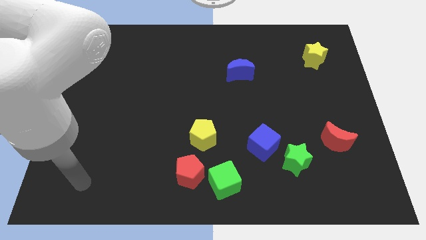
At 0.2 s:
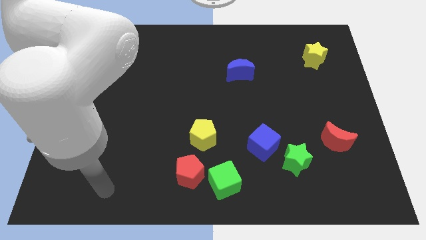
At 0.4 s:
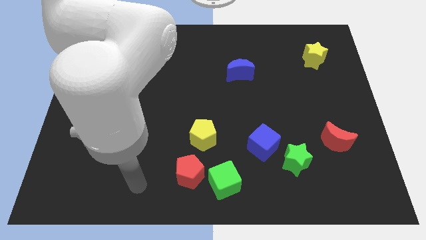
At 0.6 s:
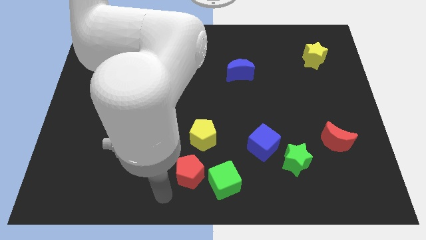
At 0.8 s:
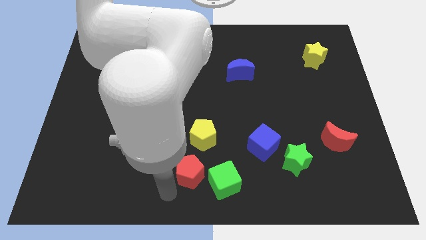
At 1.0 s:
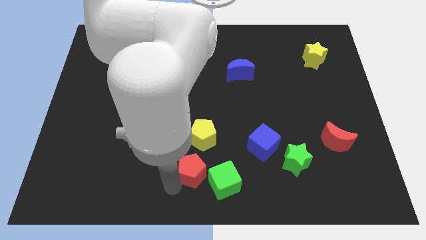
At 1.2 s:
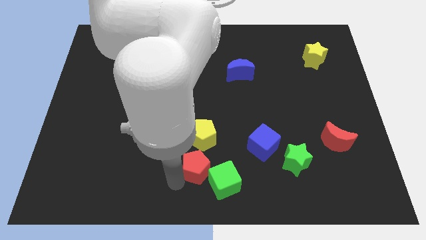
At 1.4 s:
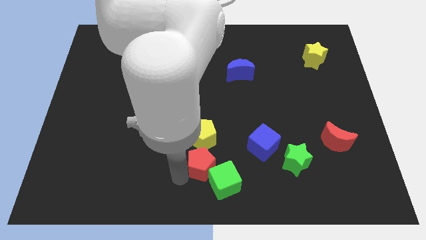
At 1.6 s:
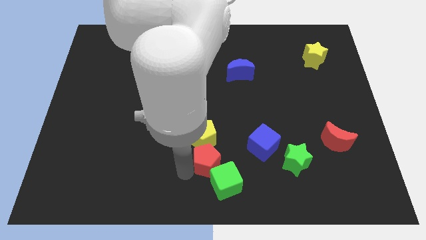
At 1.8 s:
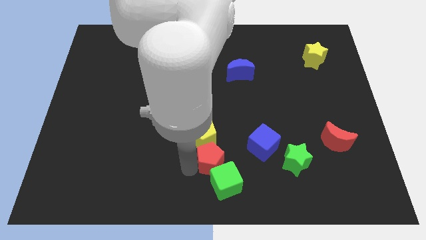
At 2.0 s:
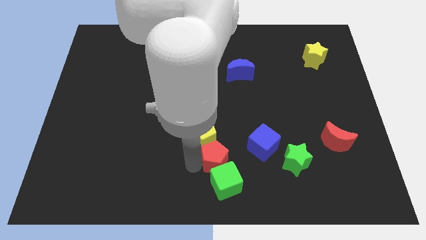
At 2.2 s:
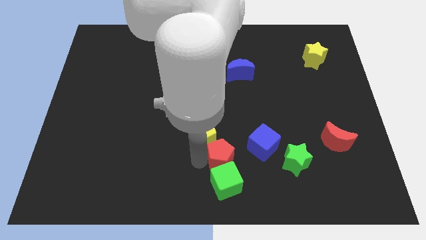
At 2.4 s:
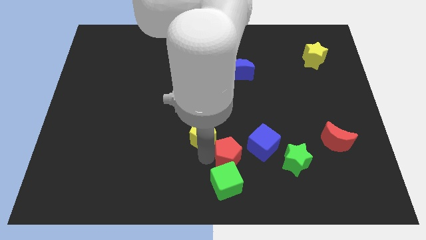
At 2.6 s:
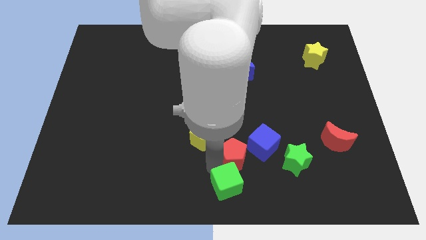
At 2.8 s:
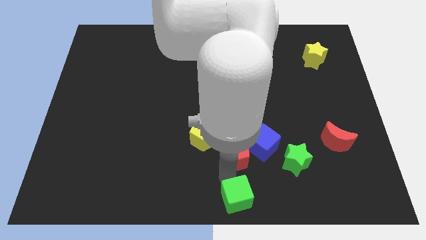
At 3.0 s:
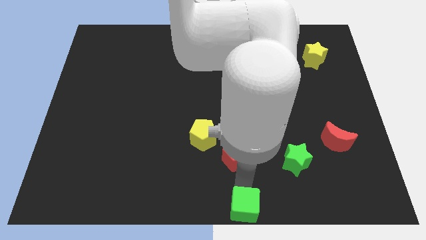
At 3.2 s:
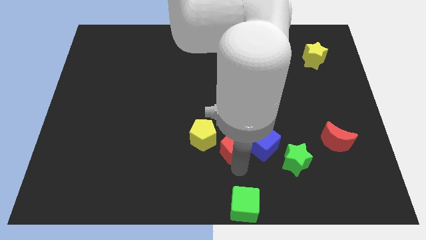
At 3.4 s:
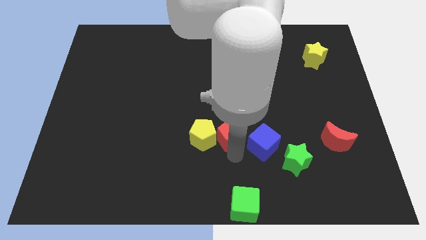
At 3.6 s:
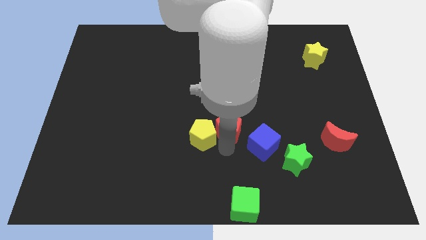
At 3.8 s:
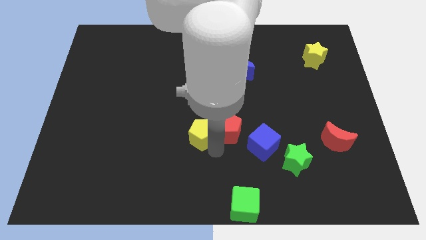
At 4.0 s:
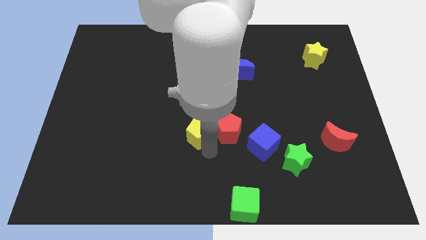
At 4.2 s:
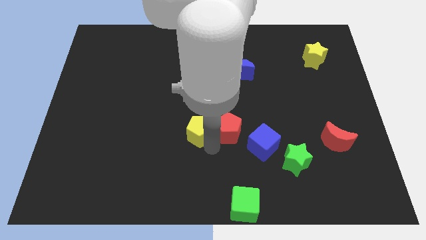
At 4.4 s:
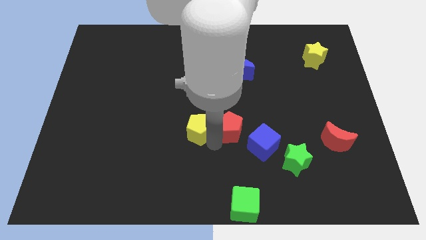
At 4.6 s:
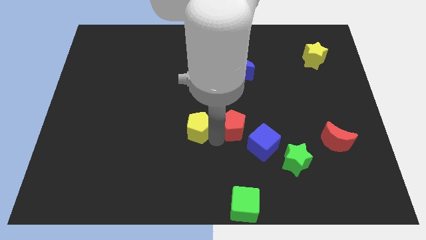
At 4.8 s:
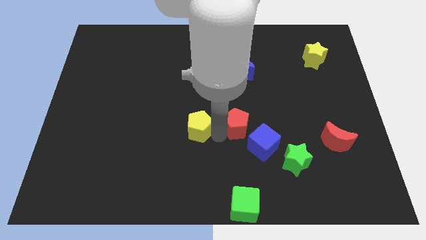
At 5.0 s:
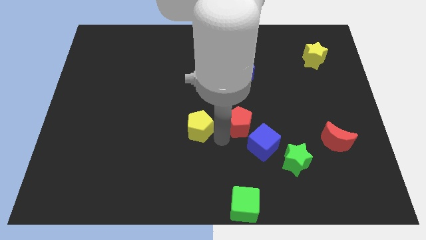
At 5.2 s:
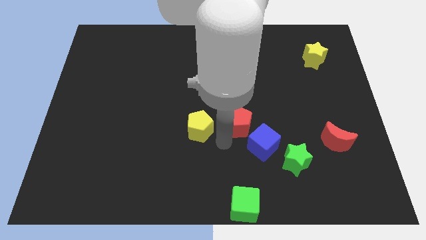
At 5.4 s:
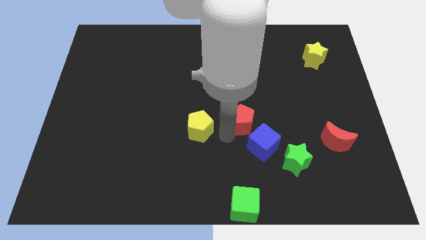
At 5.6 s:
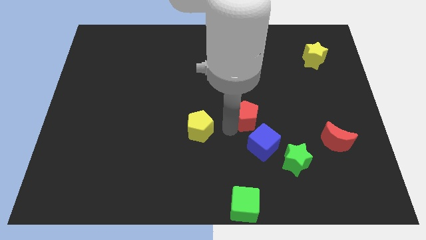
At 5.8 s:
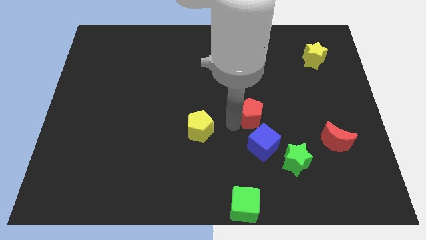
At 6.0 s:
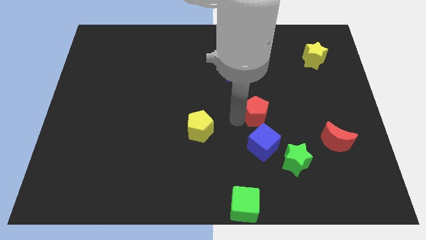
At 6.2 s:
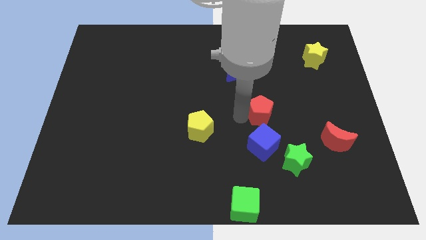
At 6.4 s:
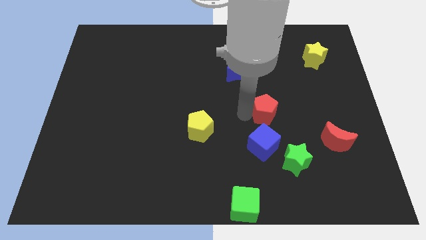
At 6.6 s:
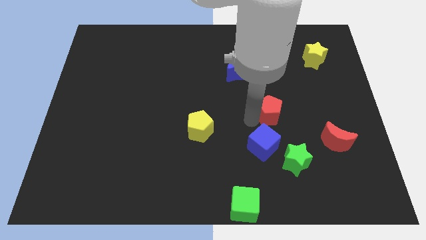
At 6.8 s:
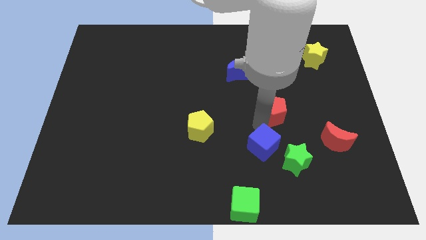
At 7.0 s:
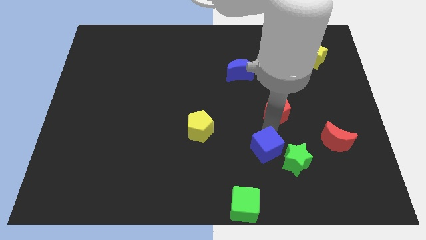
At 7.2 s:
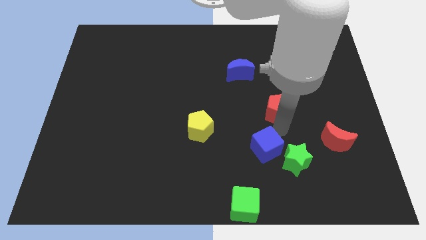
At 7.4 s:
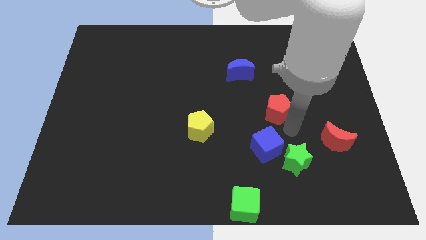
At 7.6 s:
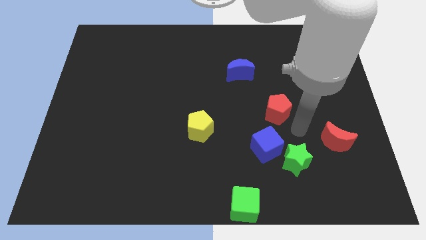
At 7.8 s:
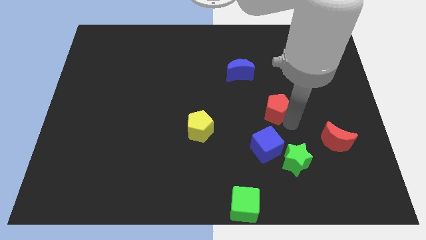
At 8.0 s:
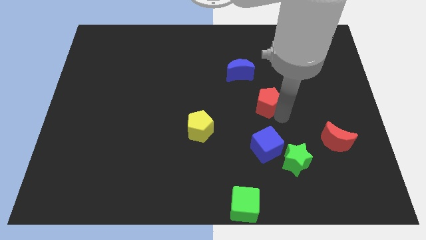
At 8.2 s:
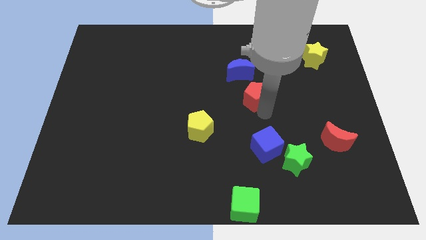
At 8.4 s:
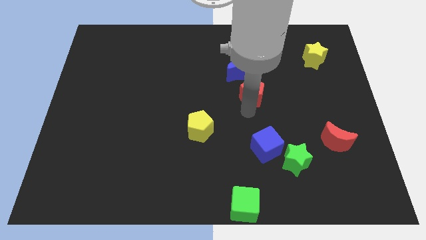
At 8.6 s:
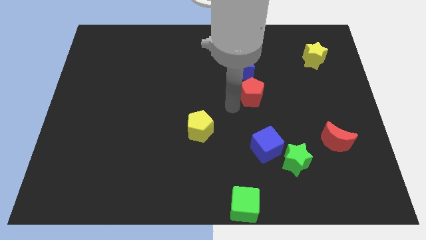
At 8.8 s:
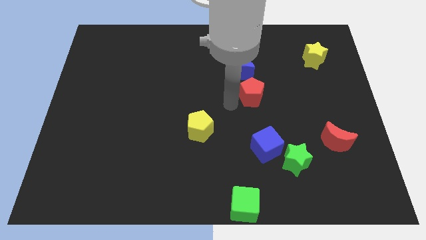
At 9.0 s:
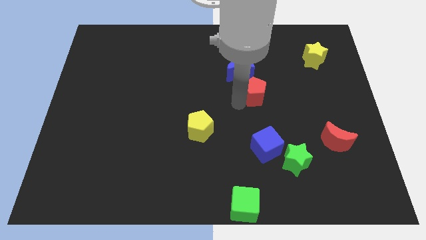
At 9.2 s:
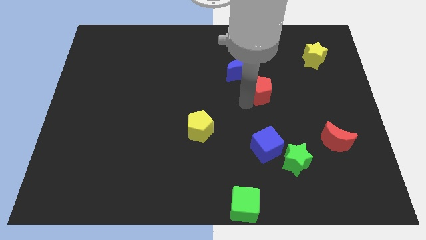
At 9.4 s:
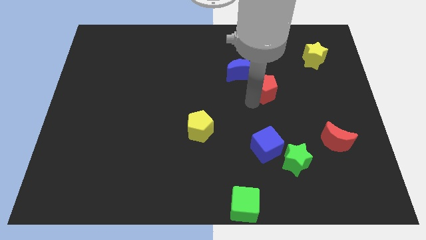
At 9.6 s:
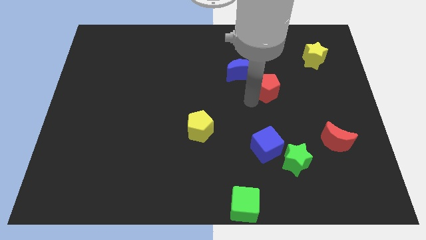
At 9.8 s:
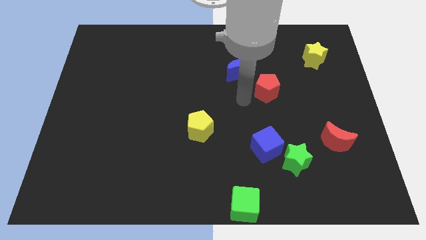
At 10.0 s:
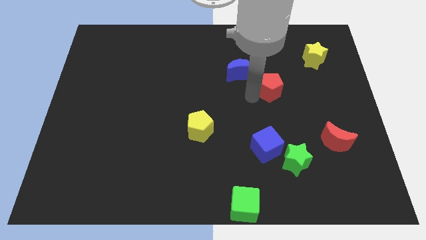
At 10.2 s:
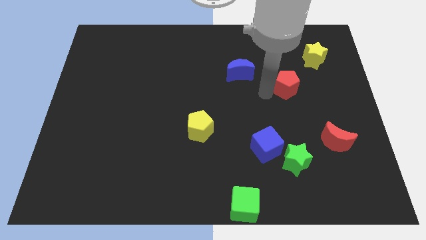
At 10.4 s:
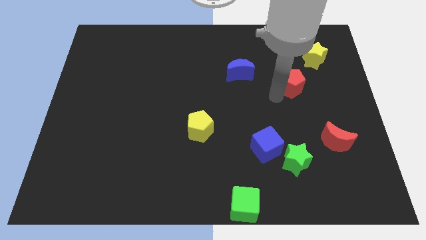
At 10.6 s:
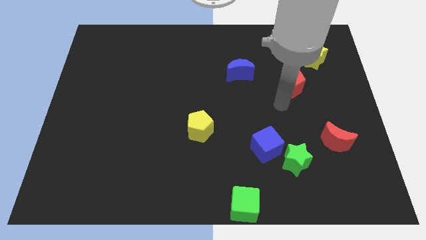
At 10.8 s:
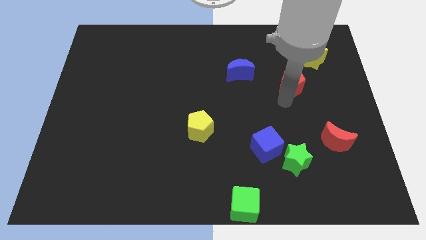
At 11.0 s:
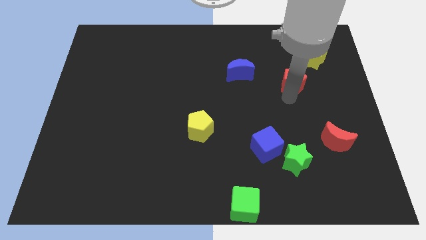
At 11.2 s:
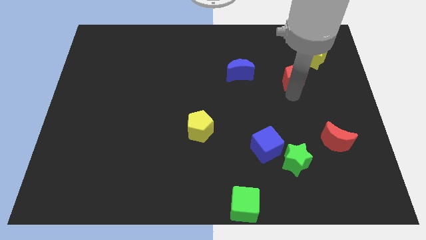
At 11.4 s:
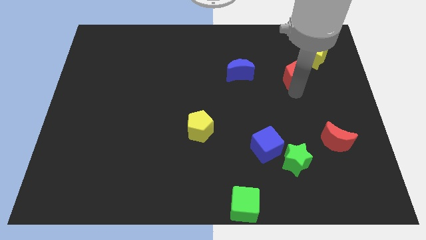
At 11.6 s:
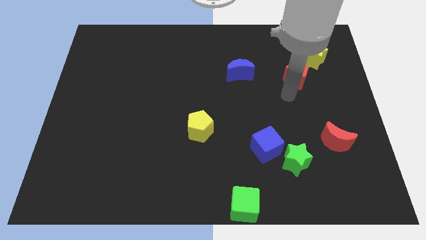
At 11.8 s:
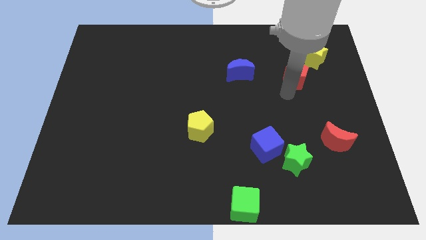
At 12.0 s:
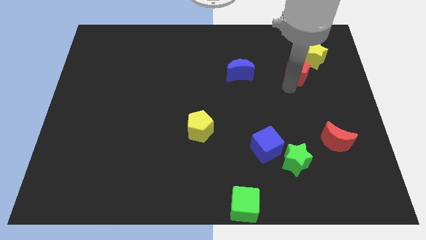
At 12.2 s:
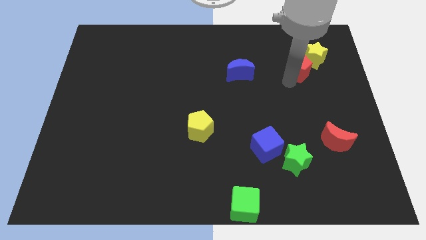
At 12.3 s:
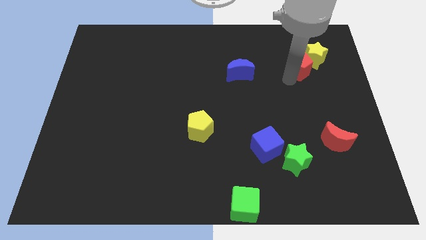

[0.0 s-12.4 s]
put the red pentagon to the yellow star

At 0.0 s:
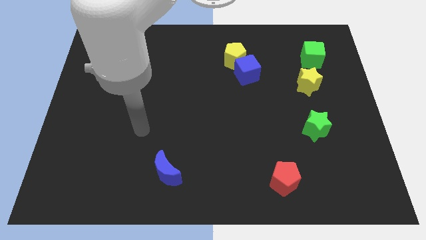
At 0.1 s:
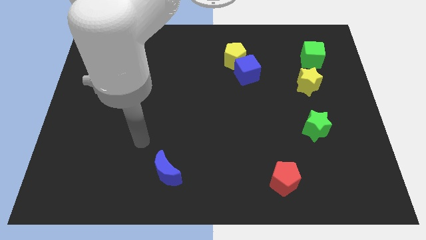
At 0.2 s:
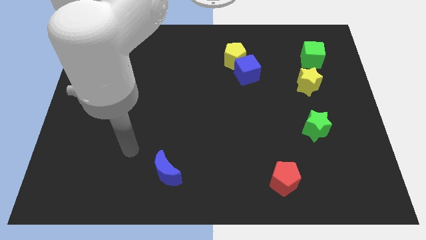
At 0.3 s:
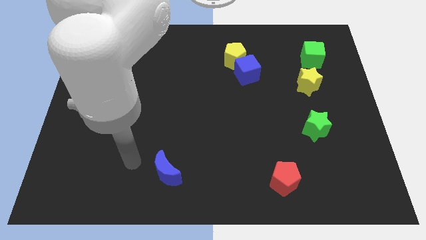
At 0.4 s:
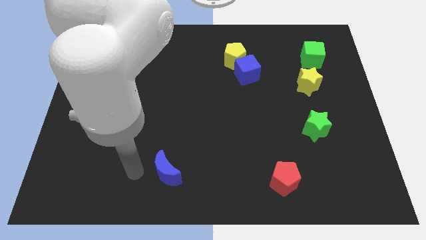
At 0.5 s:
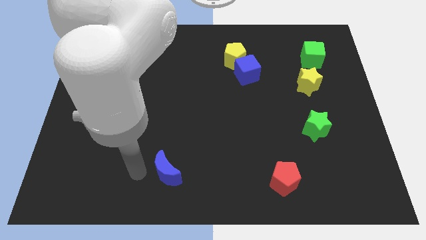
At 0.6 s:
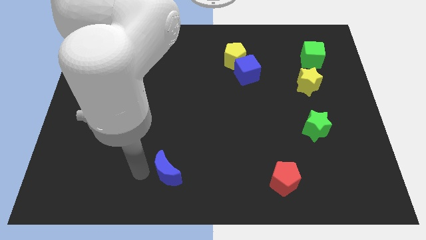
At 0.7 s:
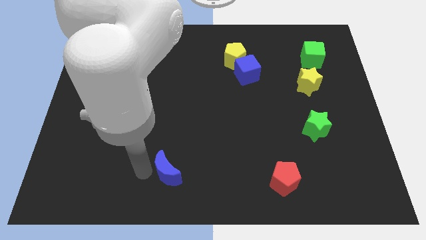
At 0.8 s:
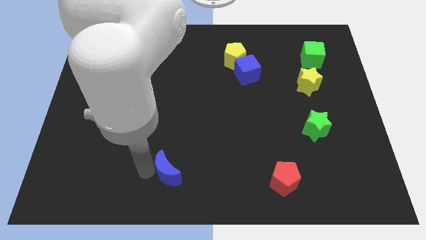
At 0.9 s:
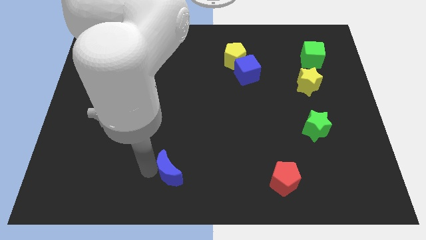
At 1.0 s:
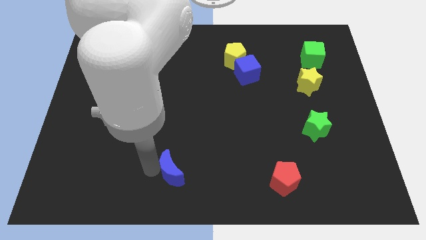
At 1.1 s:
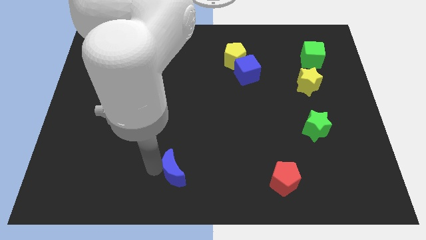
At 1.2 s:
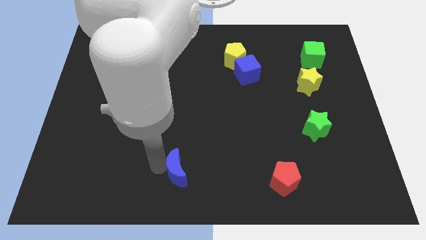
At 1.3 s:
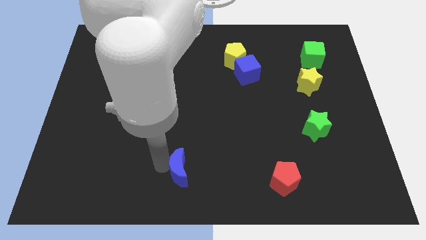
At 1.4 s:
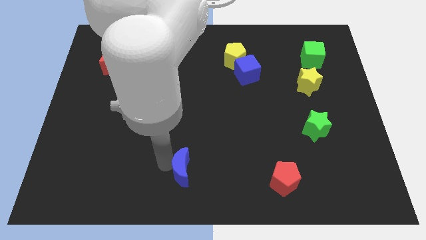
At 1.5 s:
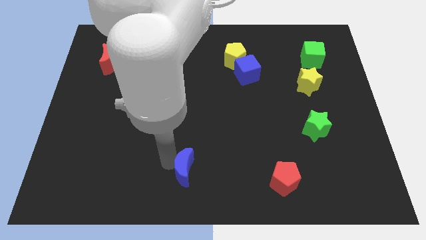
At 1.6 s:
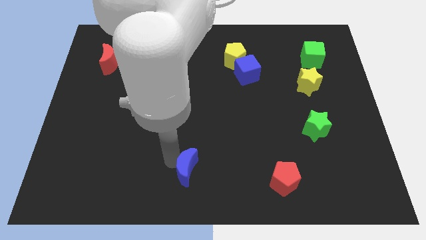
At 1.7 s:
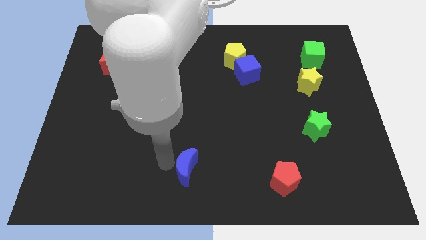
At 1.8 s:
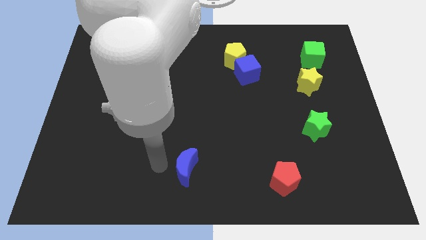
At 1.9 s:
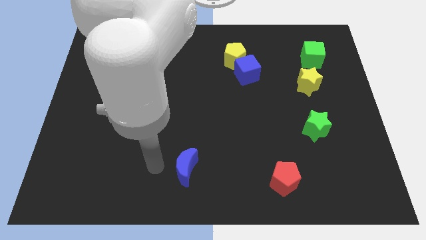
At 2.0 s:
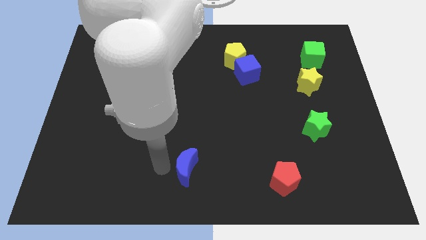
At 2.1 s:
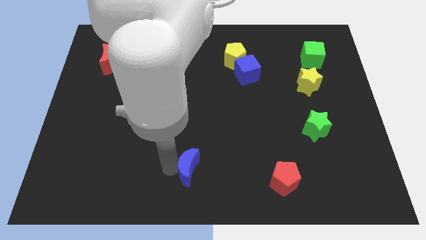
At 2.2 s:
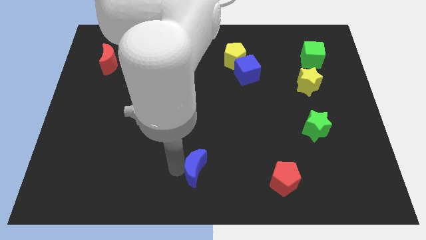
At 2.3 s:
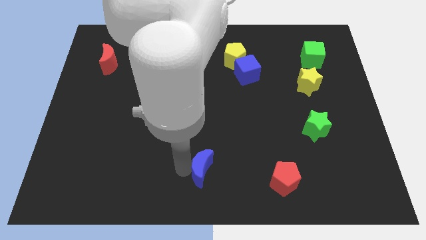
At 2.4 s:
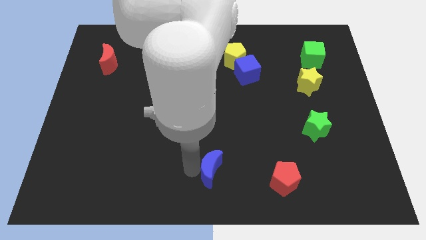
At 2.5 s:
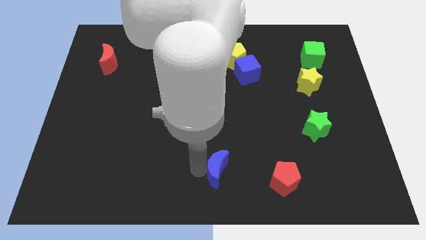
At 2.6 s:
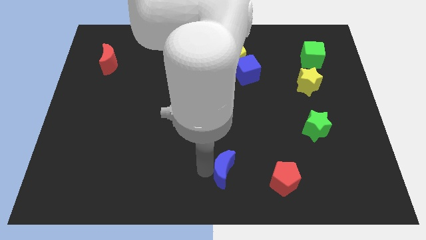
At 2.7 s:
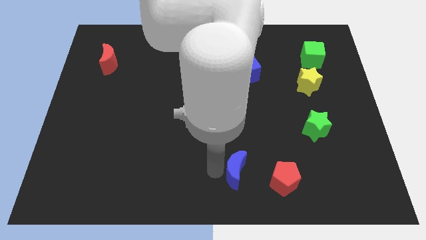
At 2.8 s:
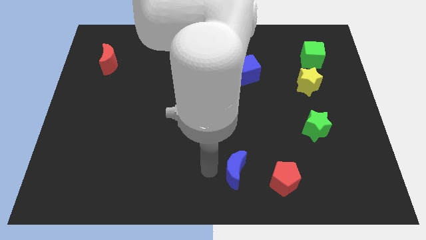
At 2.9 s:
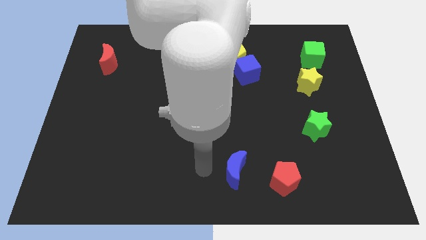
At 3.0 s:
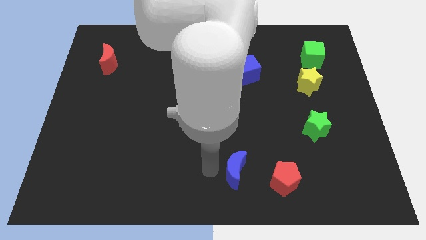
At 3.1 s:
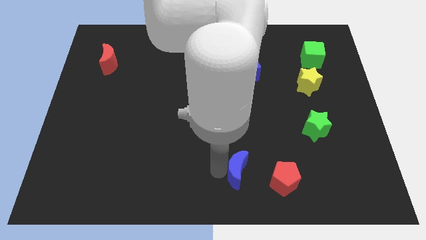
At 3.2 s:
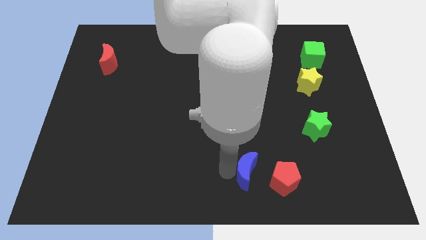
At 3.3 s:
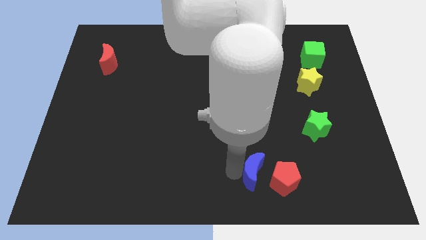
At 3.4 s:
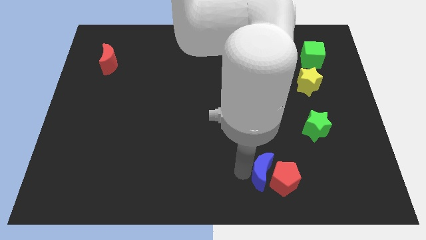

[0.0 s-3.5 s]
move the blue moon next to the red pentagon
